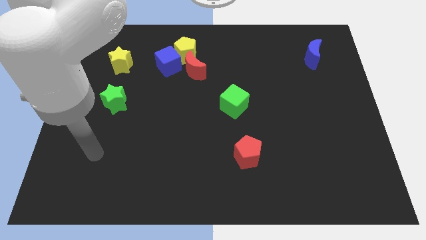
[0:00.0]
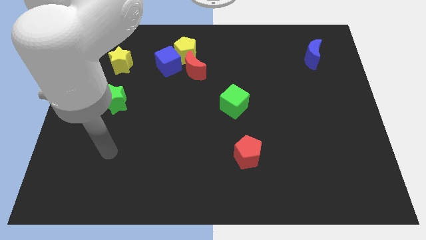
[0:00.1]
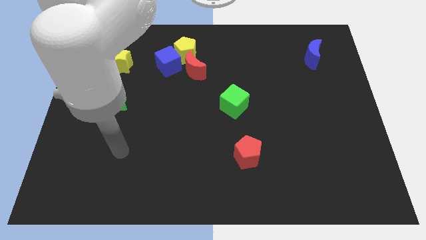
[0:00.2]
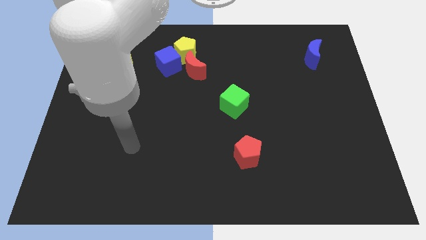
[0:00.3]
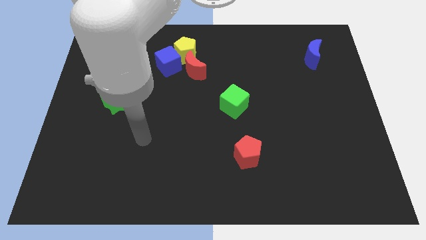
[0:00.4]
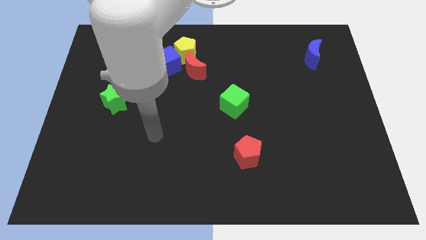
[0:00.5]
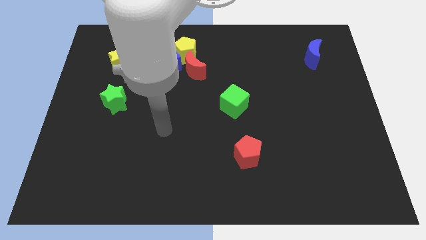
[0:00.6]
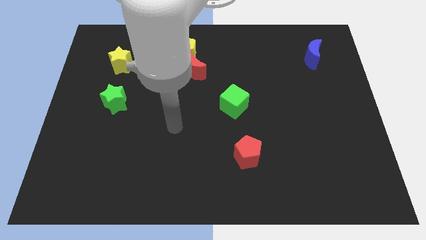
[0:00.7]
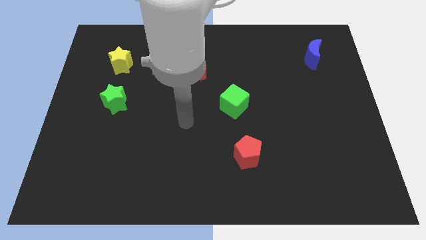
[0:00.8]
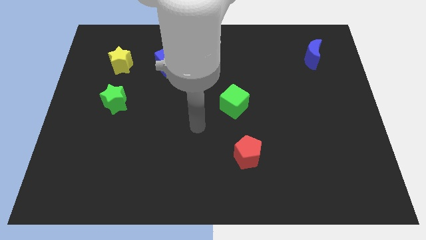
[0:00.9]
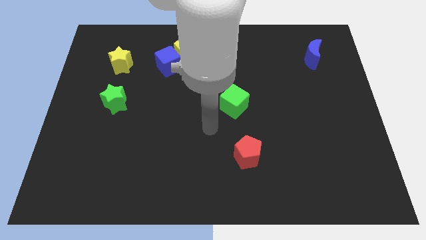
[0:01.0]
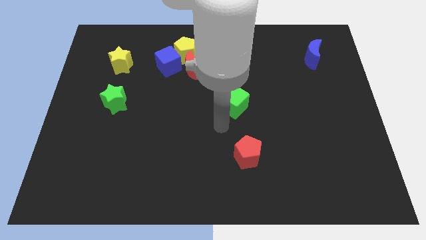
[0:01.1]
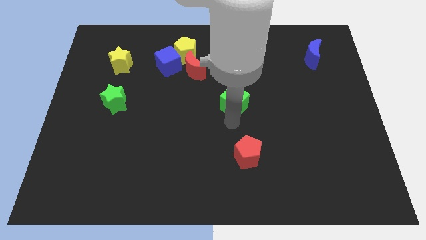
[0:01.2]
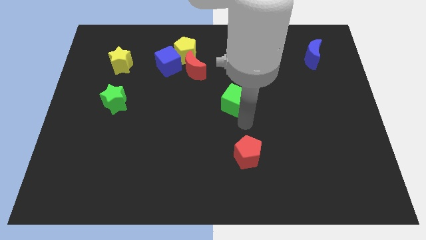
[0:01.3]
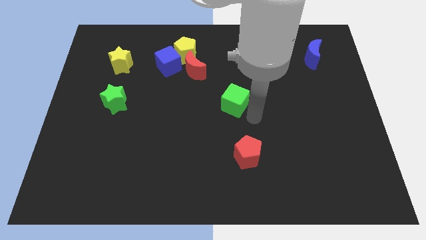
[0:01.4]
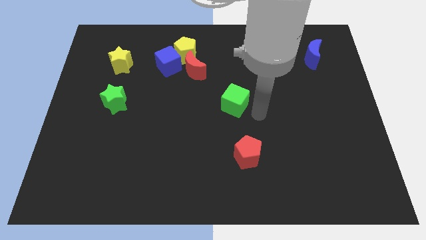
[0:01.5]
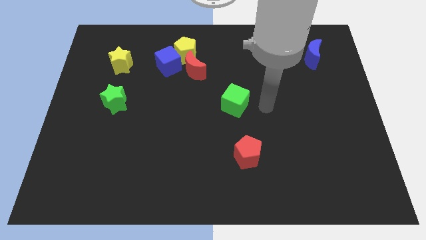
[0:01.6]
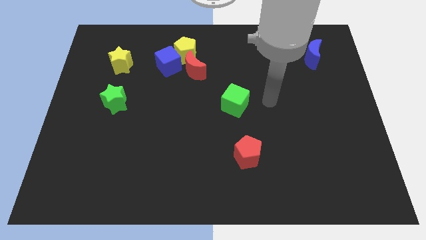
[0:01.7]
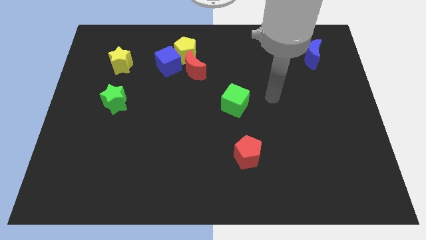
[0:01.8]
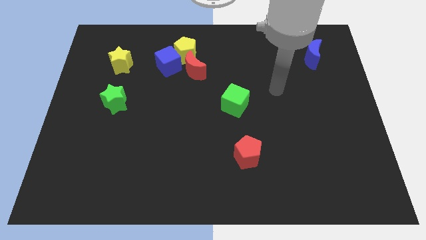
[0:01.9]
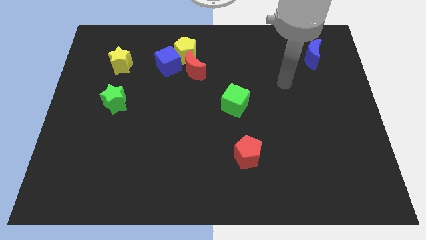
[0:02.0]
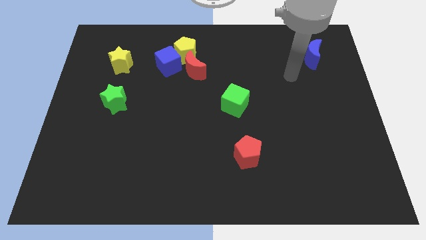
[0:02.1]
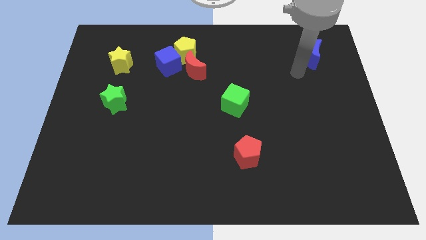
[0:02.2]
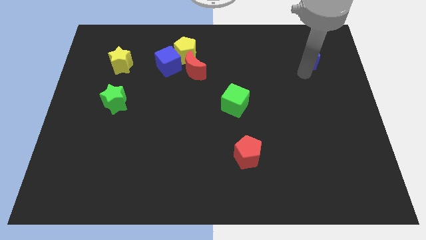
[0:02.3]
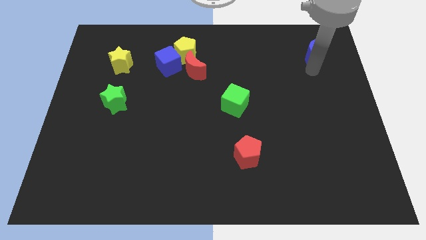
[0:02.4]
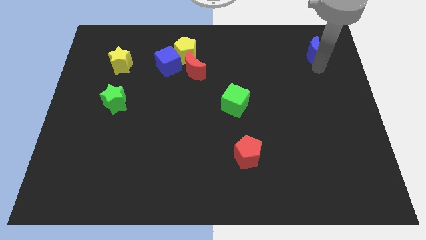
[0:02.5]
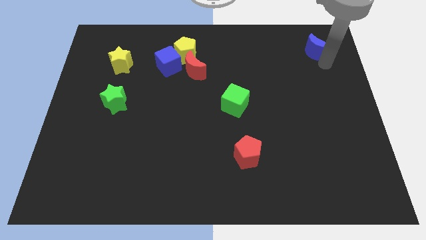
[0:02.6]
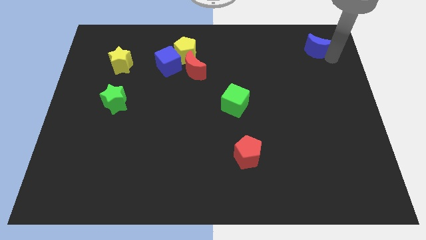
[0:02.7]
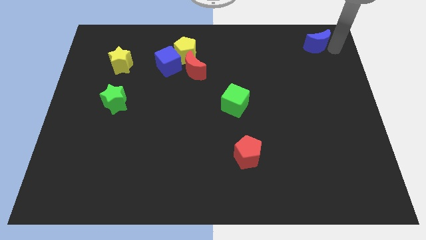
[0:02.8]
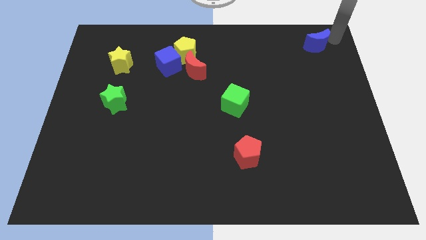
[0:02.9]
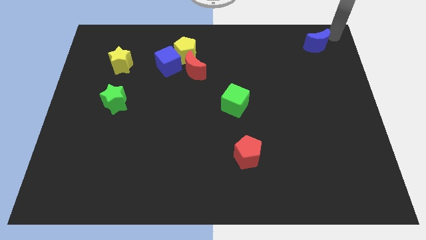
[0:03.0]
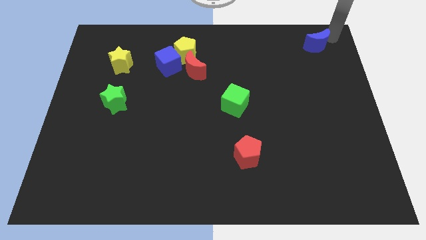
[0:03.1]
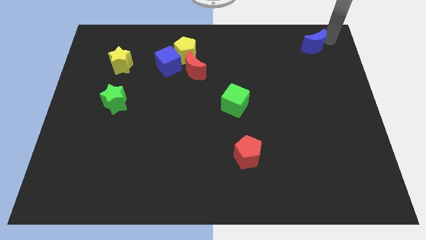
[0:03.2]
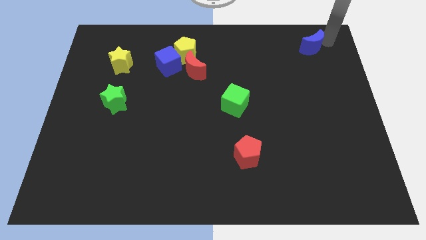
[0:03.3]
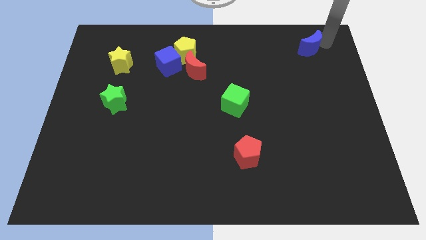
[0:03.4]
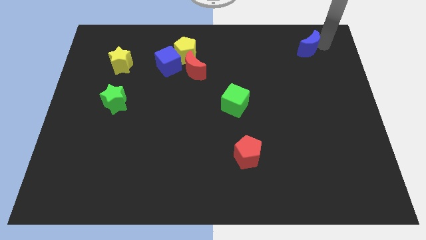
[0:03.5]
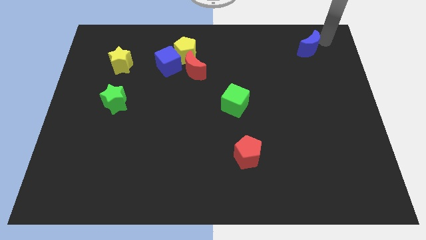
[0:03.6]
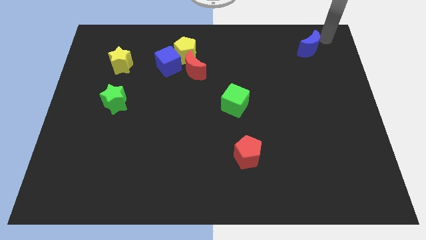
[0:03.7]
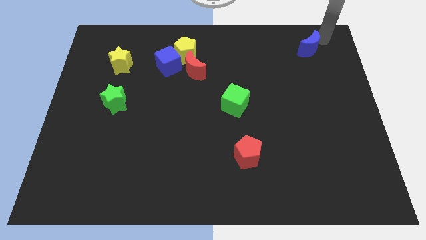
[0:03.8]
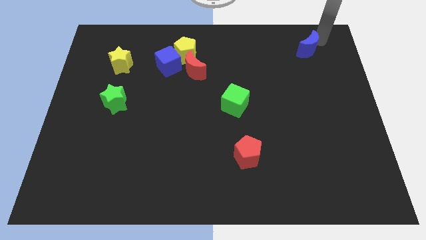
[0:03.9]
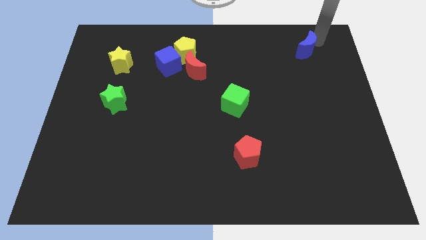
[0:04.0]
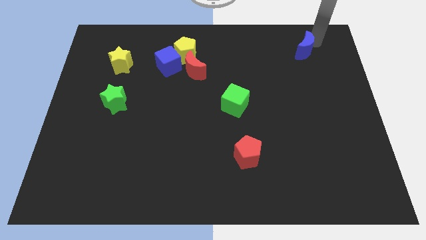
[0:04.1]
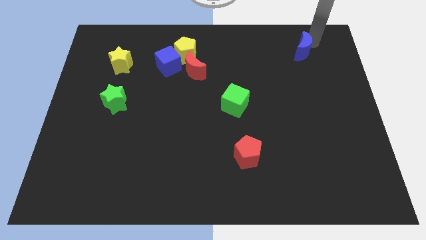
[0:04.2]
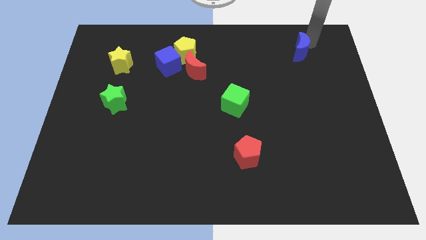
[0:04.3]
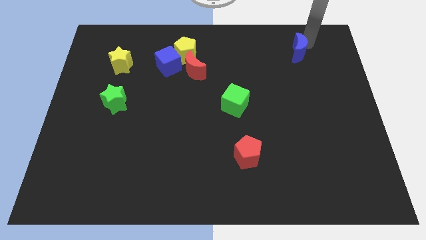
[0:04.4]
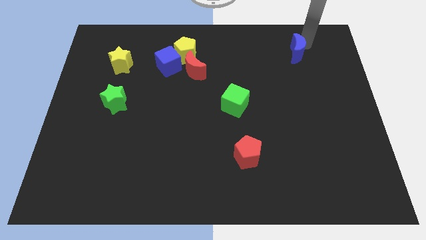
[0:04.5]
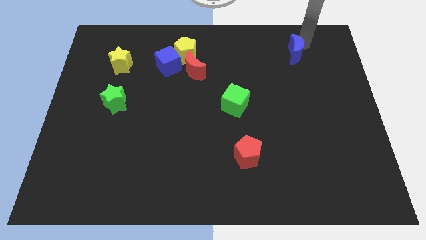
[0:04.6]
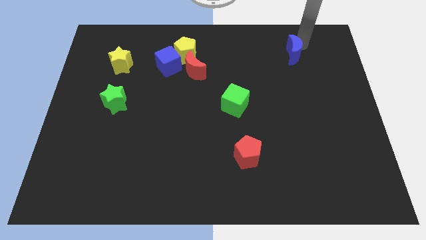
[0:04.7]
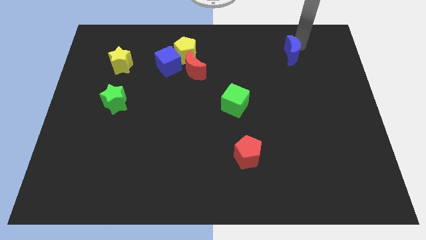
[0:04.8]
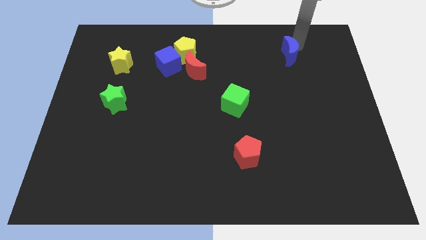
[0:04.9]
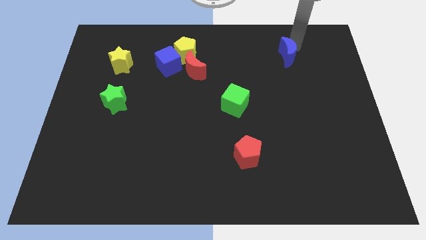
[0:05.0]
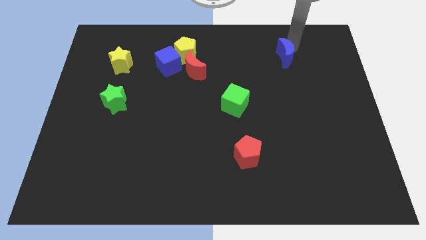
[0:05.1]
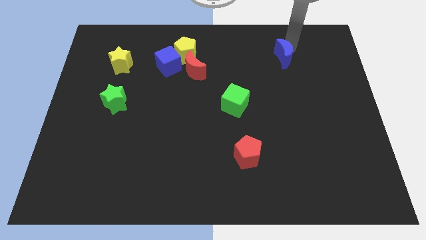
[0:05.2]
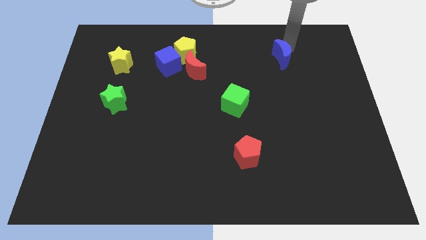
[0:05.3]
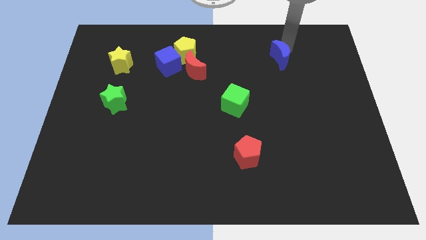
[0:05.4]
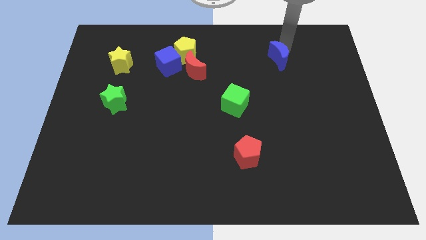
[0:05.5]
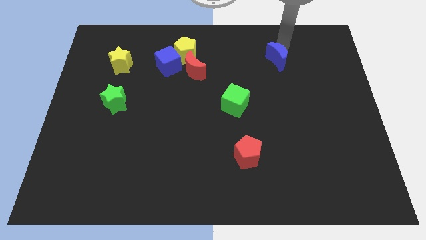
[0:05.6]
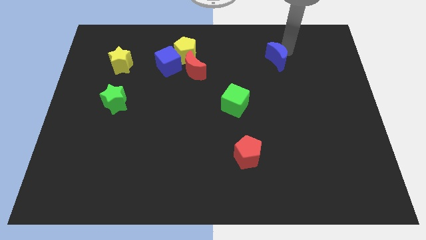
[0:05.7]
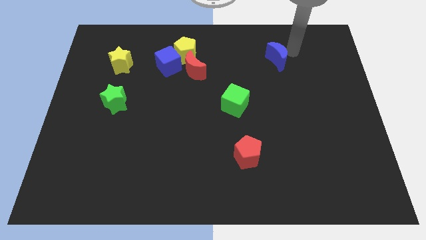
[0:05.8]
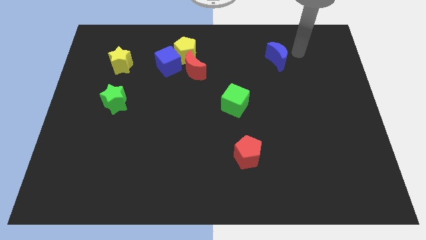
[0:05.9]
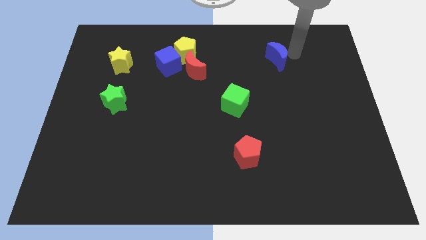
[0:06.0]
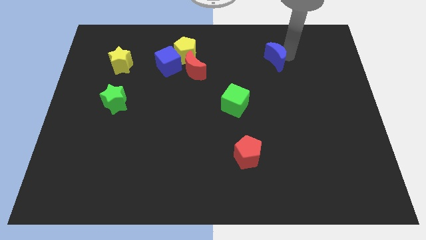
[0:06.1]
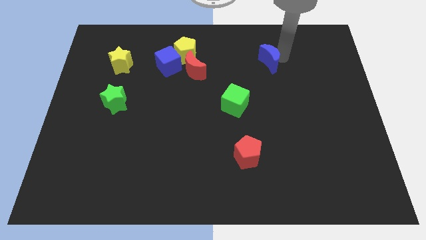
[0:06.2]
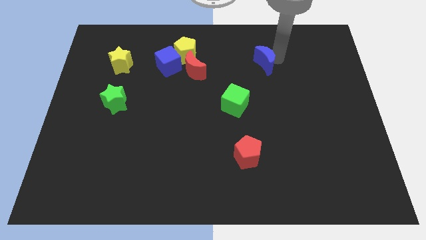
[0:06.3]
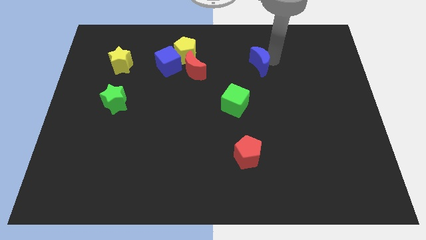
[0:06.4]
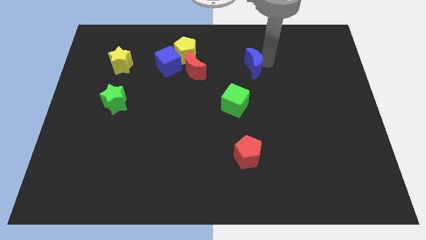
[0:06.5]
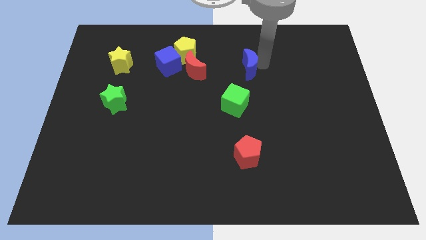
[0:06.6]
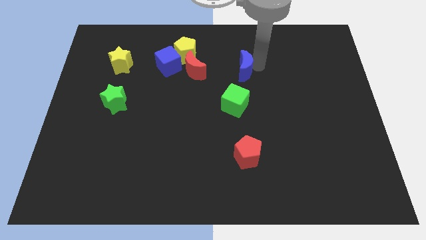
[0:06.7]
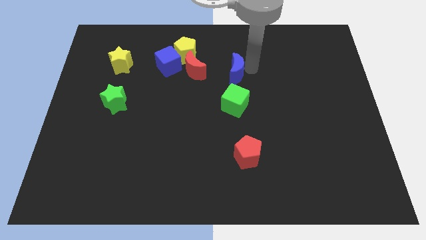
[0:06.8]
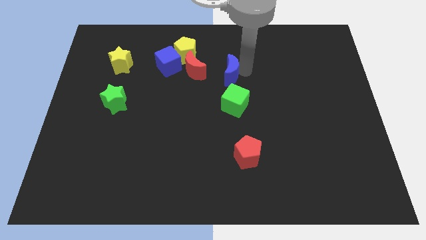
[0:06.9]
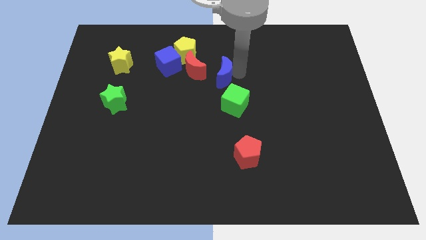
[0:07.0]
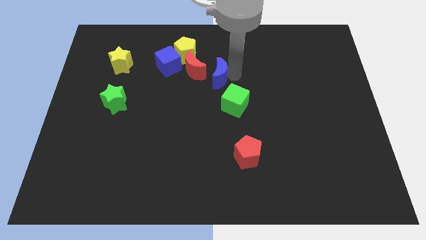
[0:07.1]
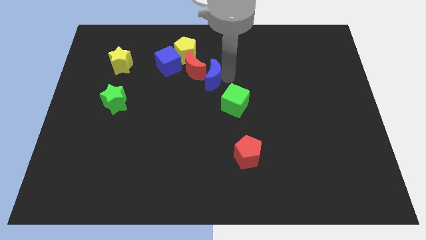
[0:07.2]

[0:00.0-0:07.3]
slide the blue moon next to the red moon
